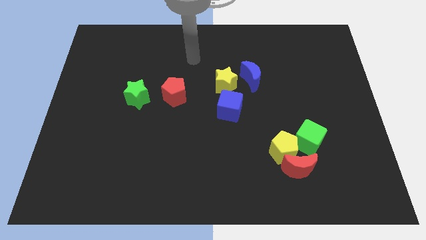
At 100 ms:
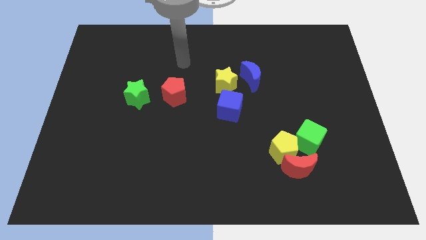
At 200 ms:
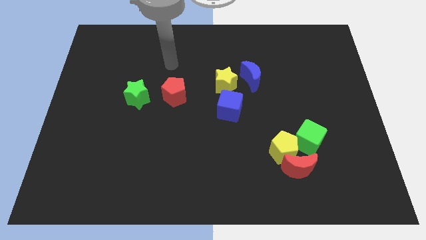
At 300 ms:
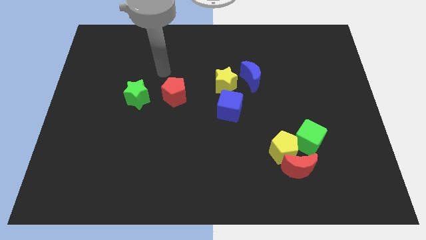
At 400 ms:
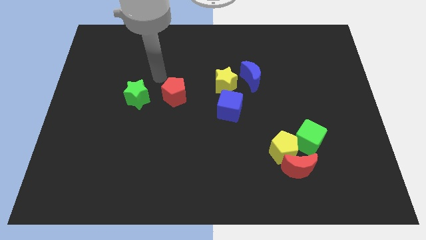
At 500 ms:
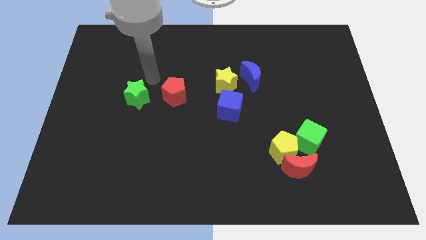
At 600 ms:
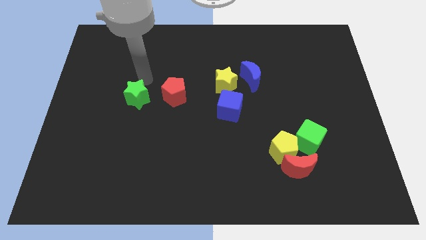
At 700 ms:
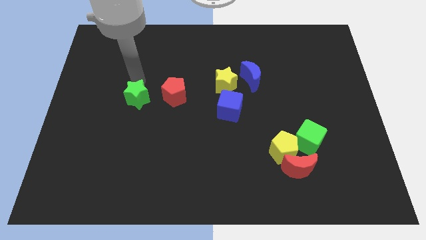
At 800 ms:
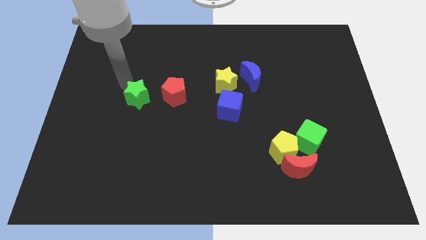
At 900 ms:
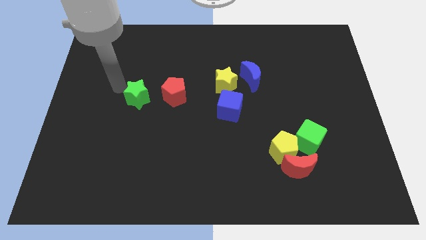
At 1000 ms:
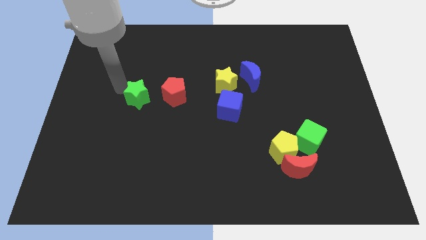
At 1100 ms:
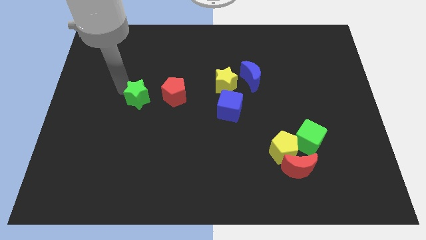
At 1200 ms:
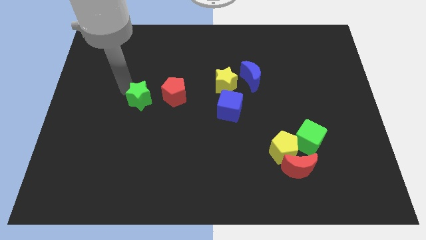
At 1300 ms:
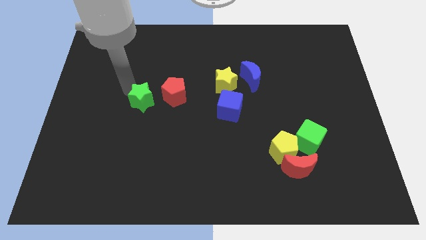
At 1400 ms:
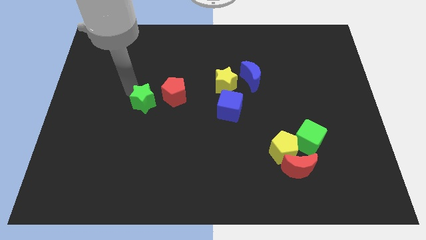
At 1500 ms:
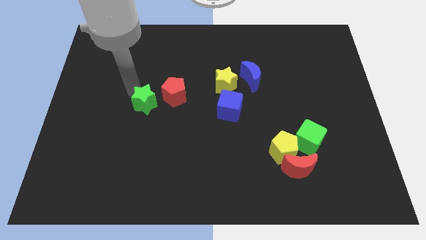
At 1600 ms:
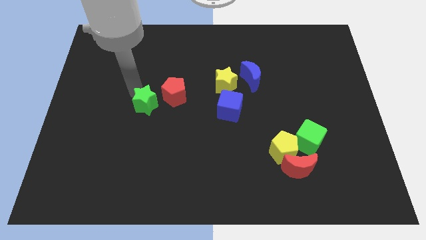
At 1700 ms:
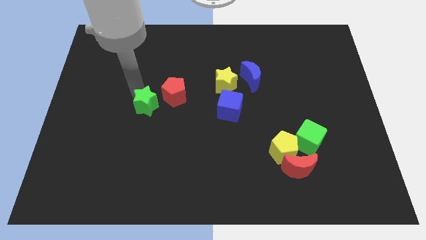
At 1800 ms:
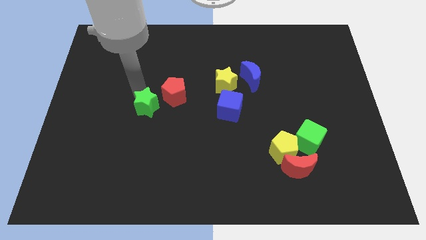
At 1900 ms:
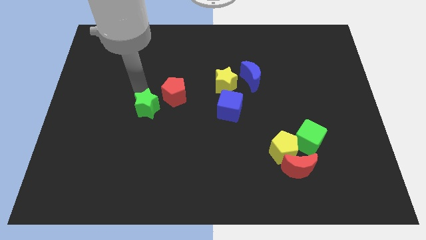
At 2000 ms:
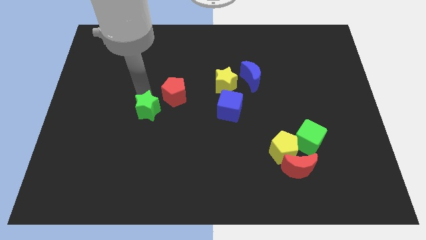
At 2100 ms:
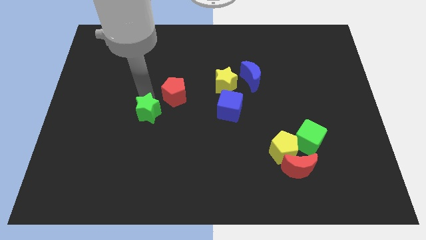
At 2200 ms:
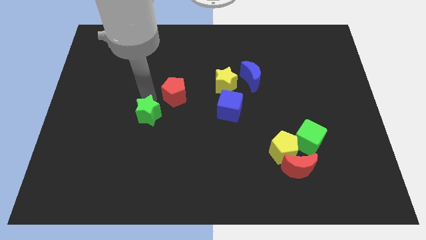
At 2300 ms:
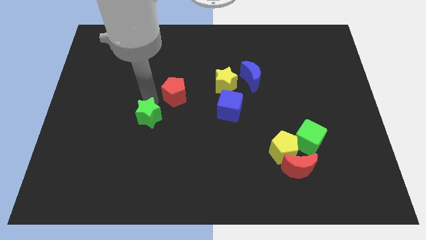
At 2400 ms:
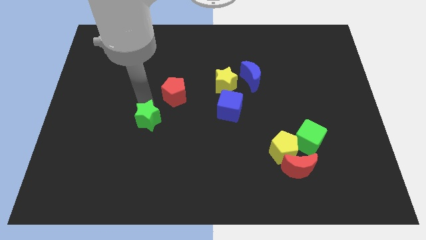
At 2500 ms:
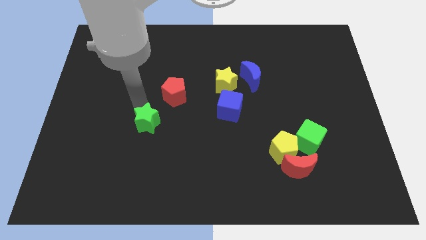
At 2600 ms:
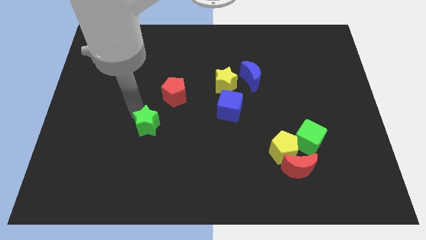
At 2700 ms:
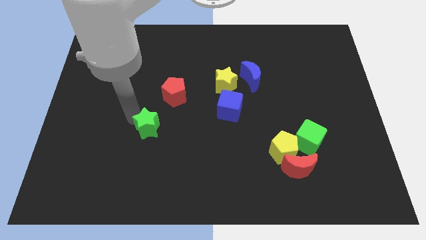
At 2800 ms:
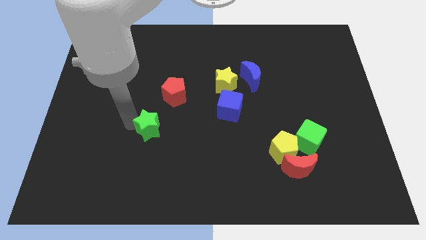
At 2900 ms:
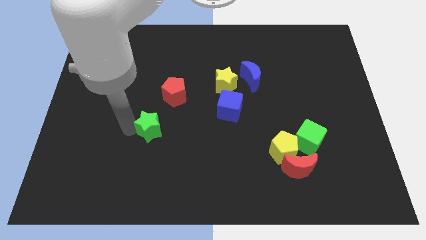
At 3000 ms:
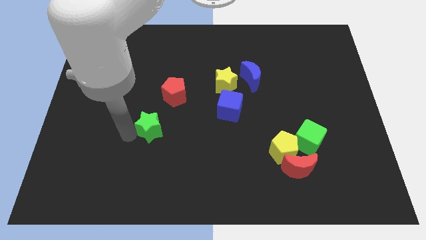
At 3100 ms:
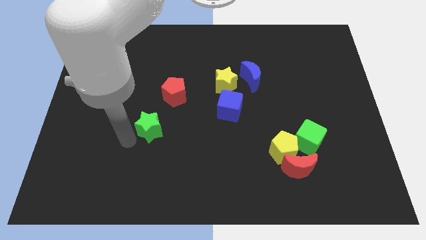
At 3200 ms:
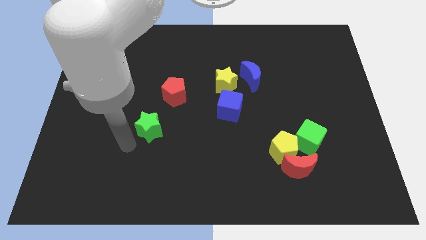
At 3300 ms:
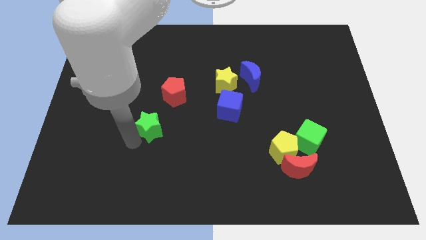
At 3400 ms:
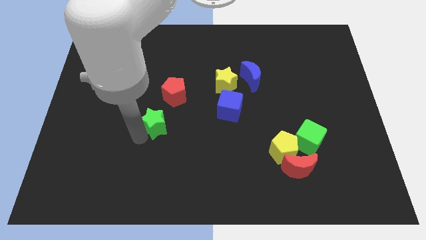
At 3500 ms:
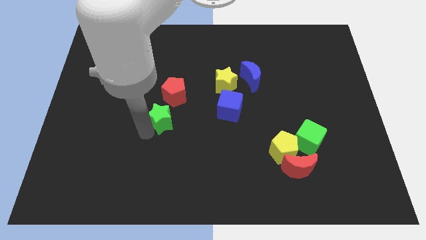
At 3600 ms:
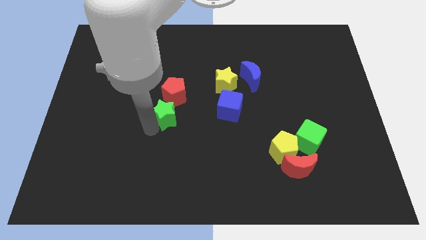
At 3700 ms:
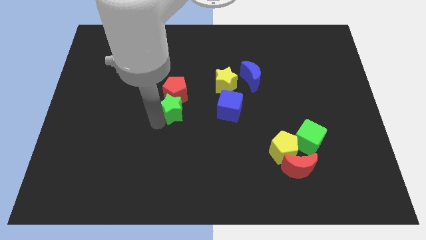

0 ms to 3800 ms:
move the green star a bit to the right

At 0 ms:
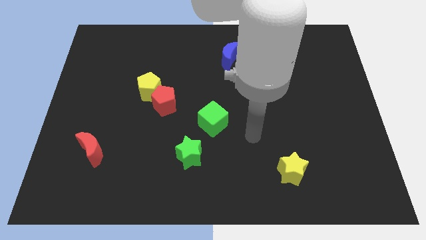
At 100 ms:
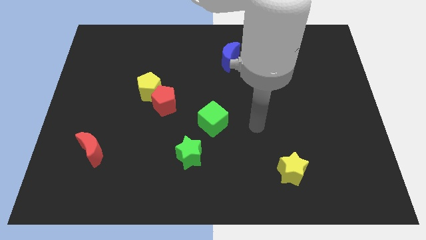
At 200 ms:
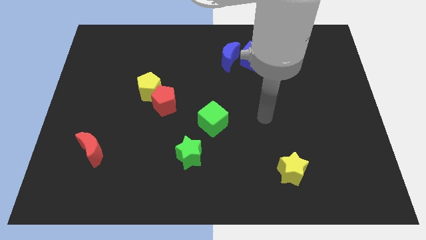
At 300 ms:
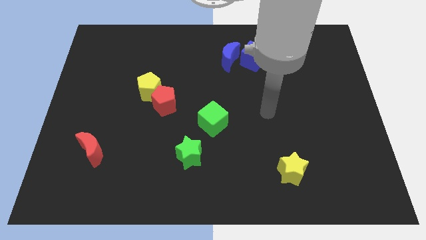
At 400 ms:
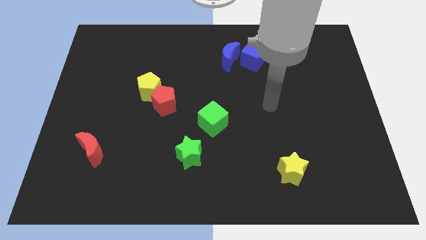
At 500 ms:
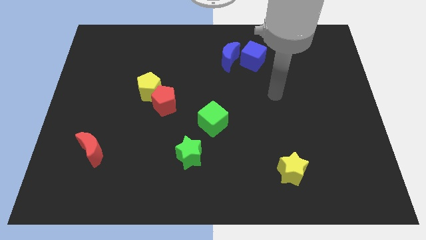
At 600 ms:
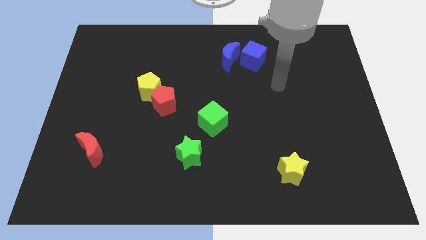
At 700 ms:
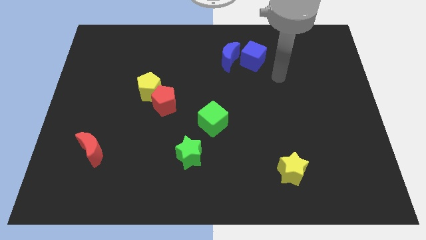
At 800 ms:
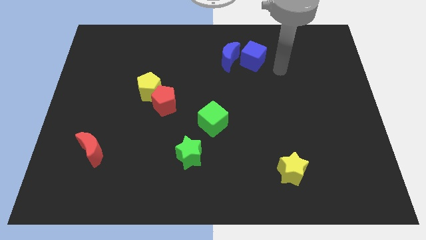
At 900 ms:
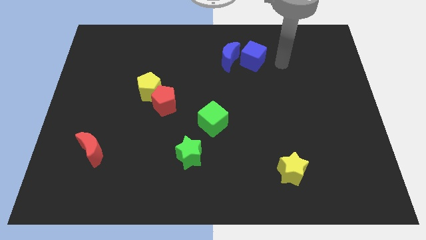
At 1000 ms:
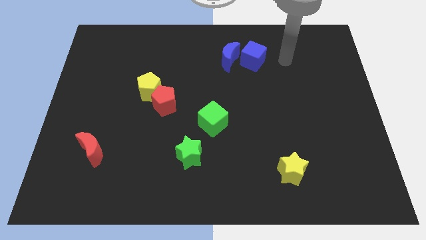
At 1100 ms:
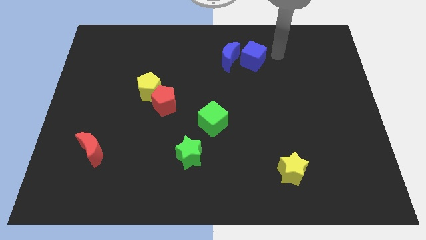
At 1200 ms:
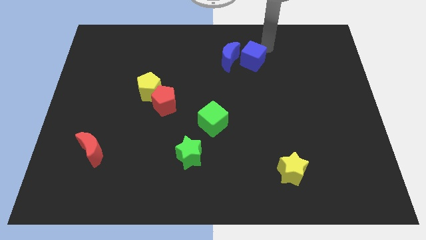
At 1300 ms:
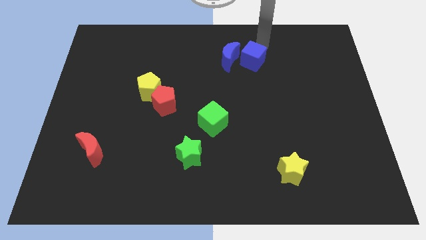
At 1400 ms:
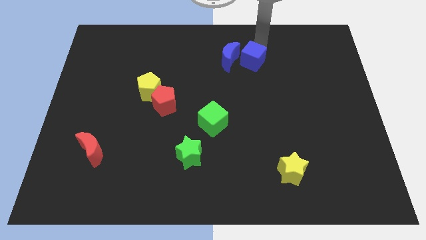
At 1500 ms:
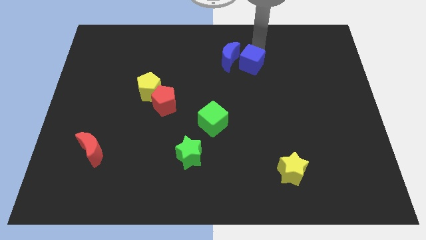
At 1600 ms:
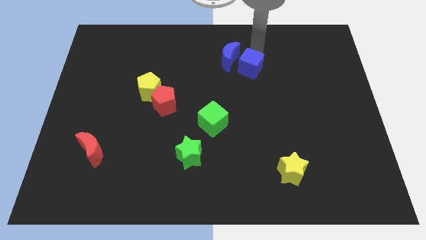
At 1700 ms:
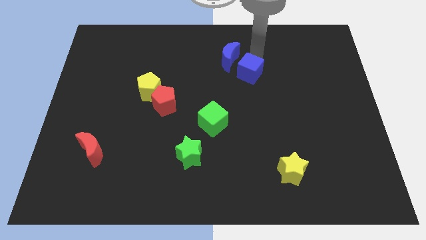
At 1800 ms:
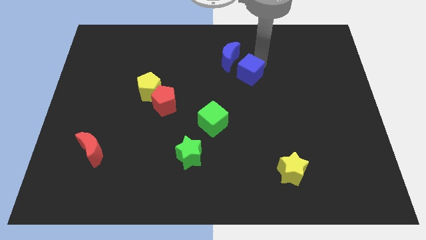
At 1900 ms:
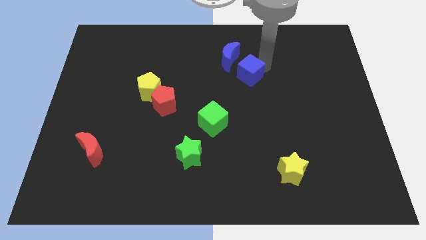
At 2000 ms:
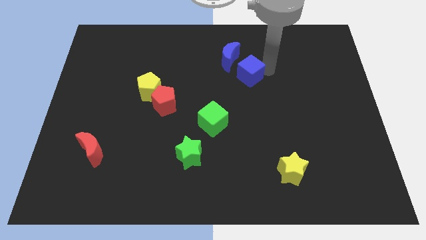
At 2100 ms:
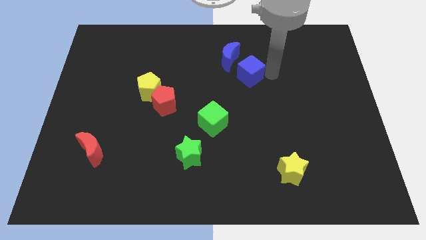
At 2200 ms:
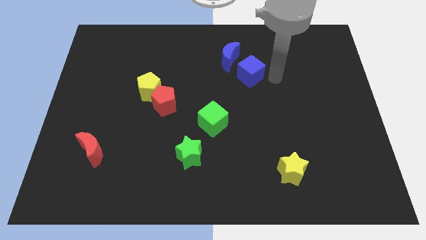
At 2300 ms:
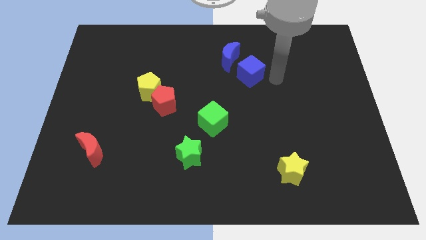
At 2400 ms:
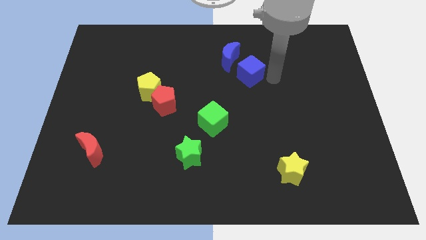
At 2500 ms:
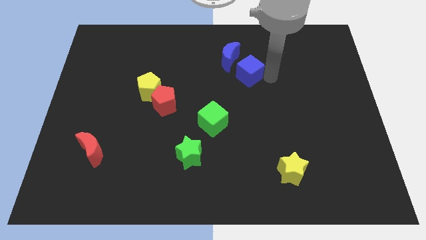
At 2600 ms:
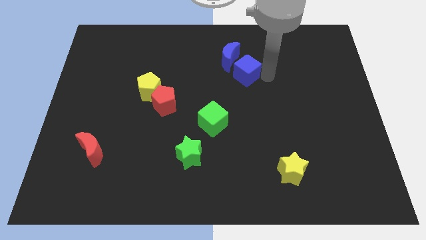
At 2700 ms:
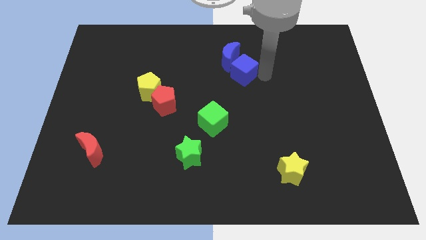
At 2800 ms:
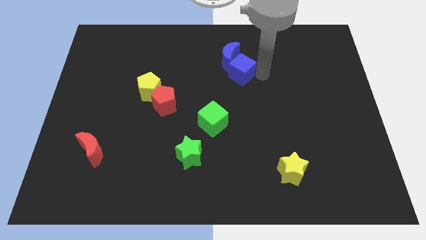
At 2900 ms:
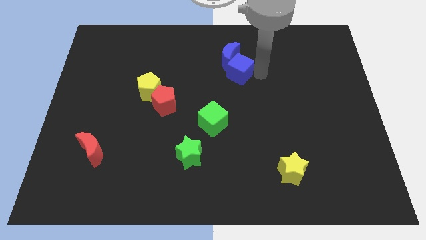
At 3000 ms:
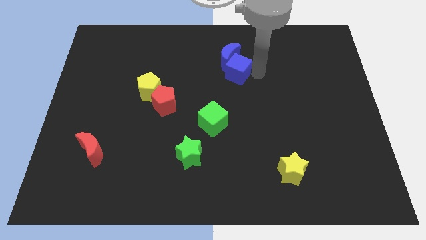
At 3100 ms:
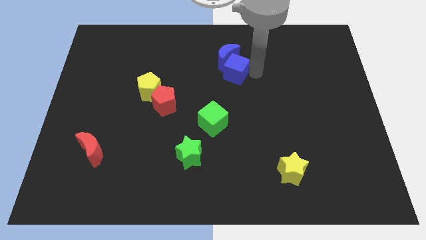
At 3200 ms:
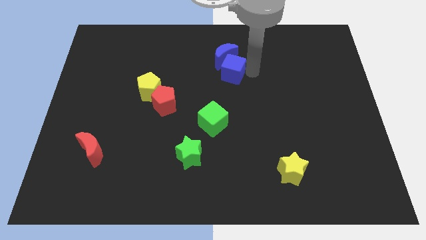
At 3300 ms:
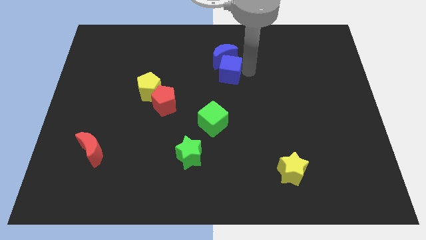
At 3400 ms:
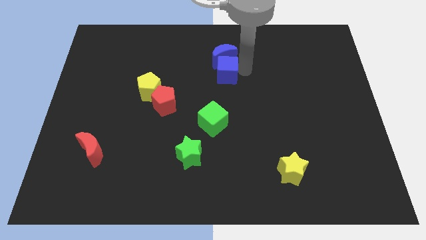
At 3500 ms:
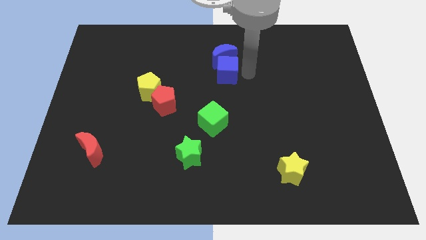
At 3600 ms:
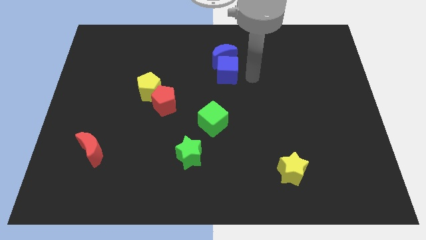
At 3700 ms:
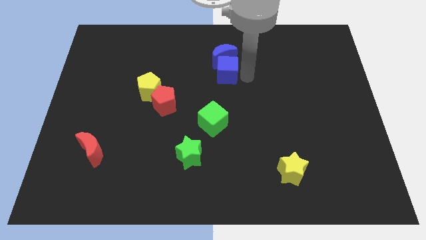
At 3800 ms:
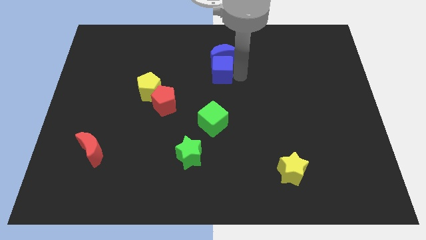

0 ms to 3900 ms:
push the blue cube left slightly

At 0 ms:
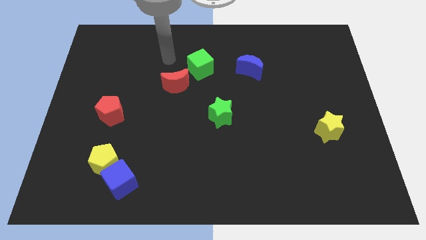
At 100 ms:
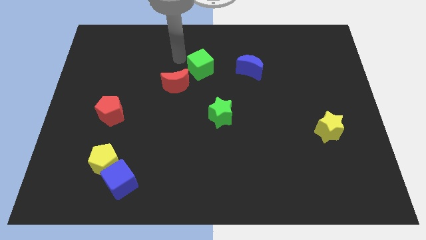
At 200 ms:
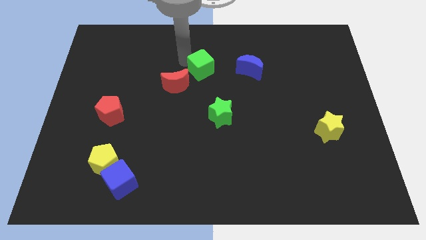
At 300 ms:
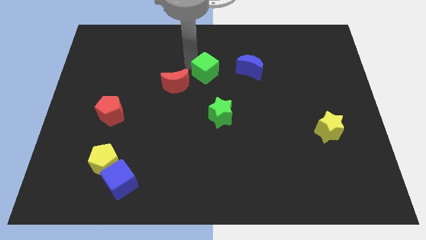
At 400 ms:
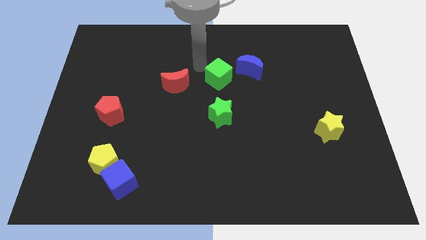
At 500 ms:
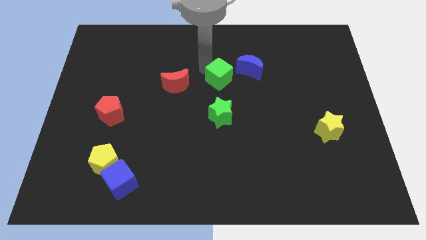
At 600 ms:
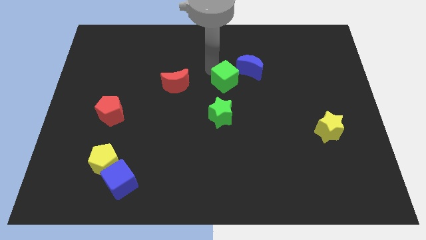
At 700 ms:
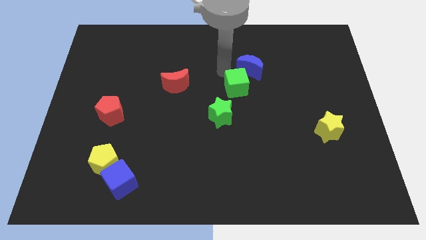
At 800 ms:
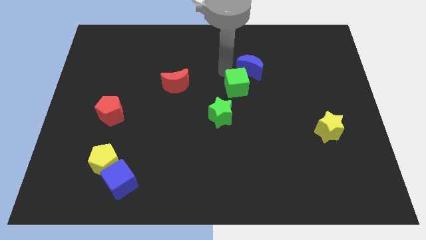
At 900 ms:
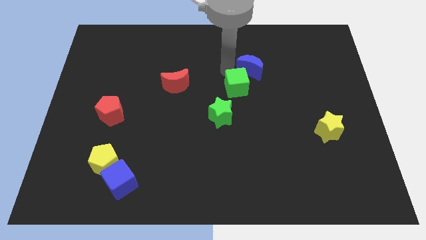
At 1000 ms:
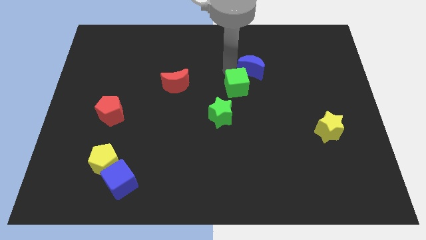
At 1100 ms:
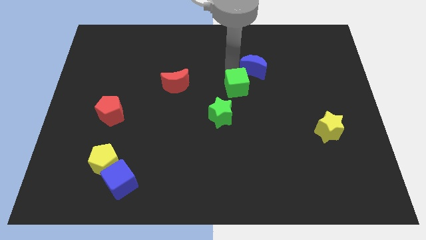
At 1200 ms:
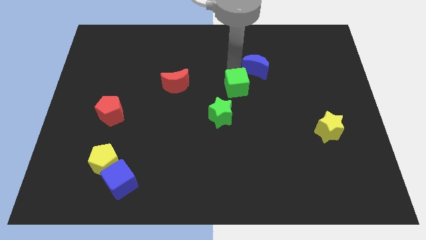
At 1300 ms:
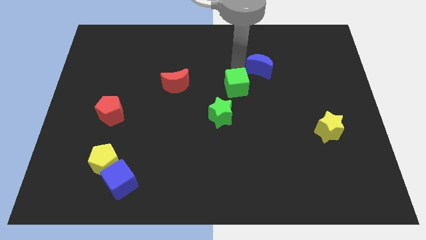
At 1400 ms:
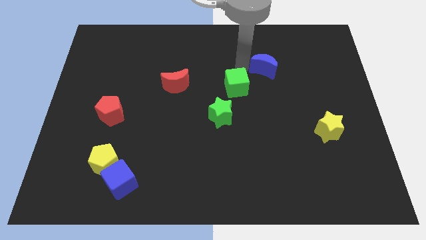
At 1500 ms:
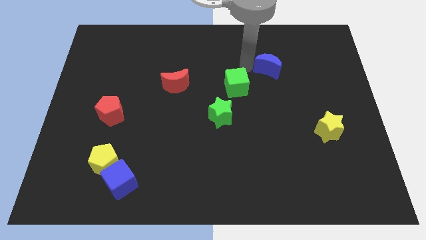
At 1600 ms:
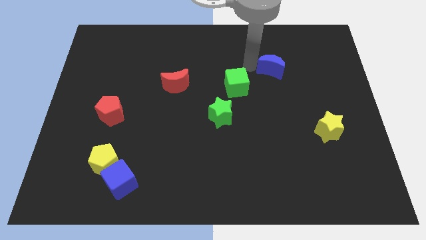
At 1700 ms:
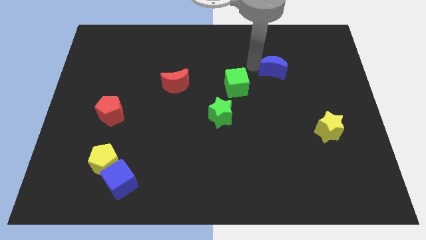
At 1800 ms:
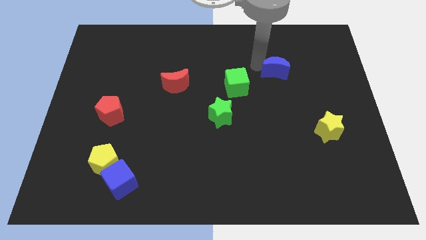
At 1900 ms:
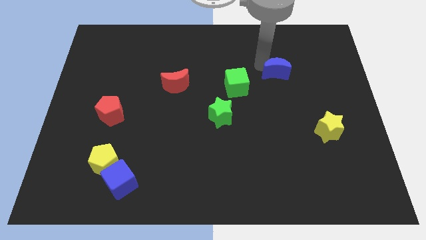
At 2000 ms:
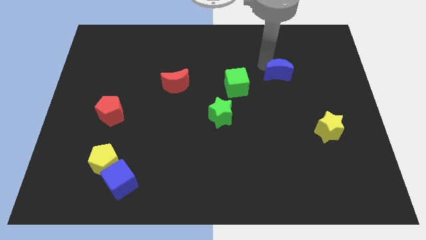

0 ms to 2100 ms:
push the blue moon to the right a bit
